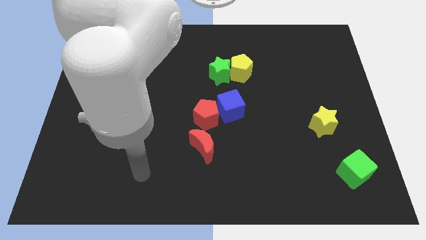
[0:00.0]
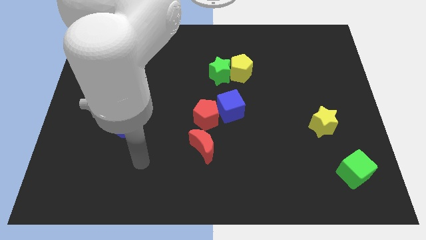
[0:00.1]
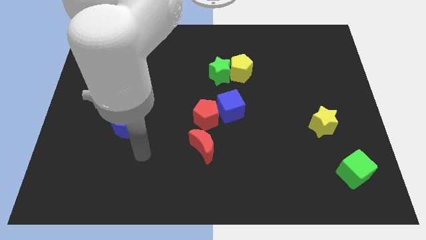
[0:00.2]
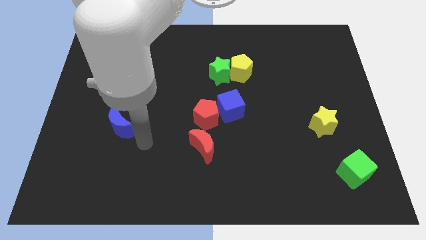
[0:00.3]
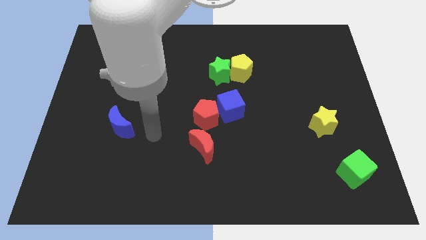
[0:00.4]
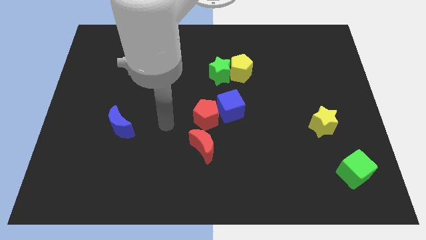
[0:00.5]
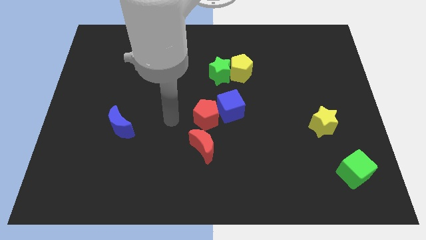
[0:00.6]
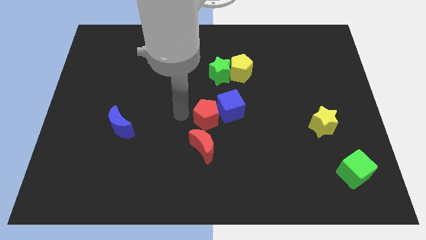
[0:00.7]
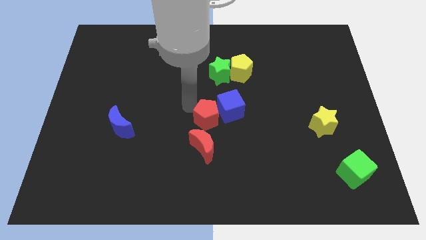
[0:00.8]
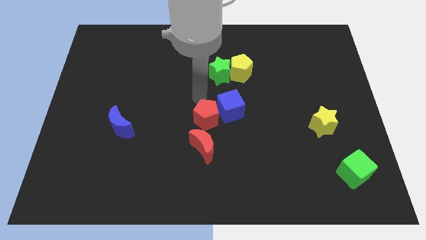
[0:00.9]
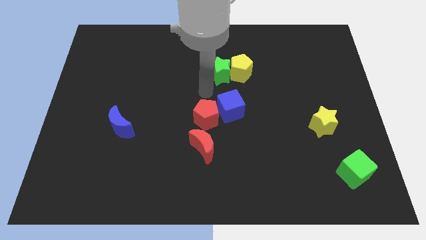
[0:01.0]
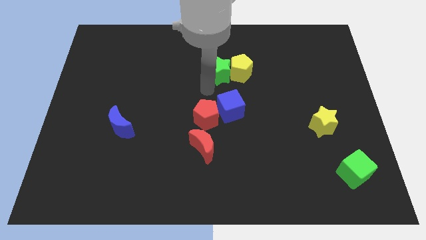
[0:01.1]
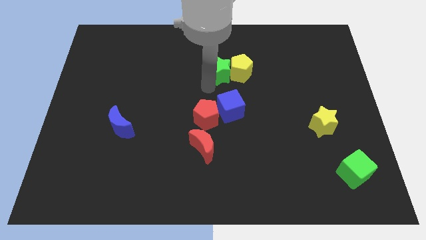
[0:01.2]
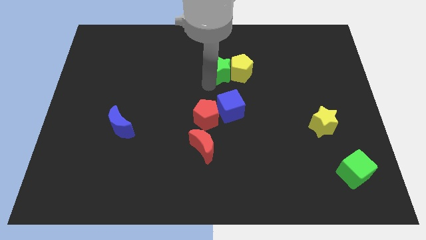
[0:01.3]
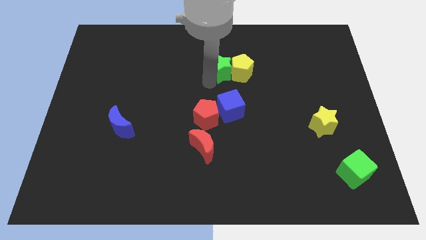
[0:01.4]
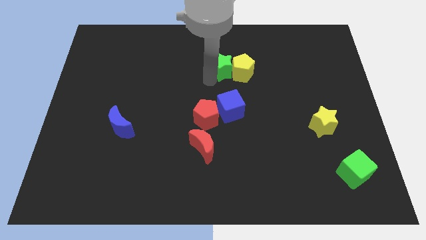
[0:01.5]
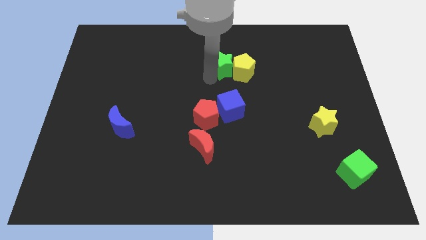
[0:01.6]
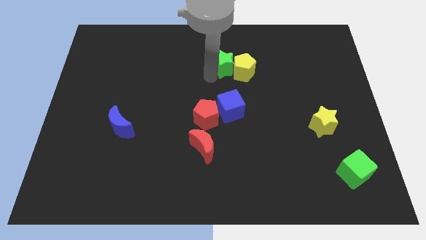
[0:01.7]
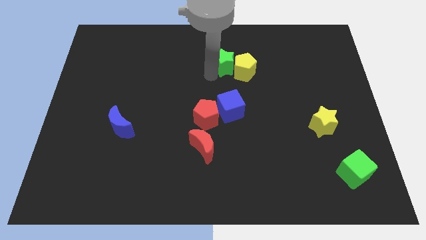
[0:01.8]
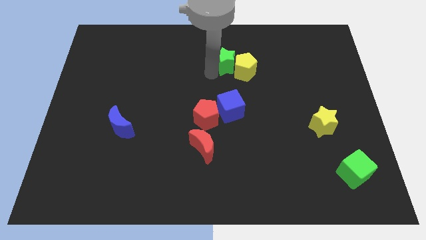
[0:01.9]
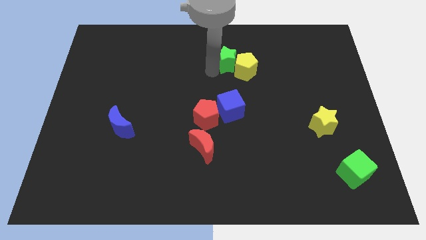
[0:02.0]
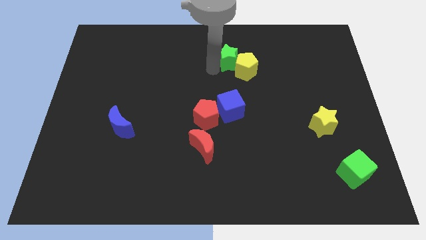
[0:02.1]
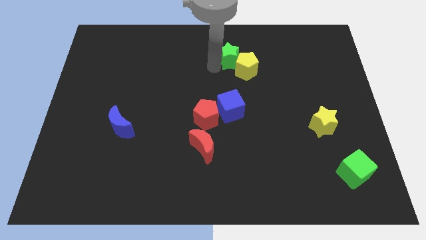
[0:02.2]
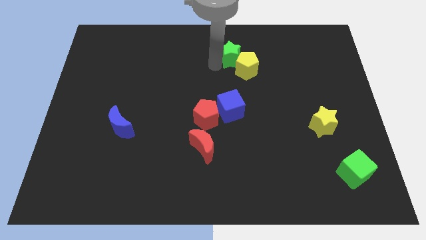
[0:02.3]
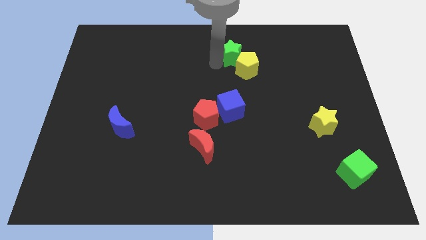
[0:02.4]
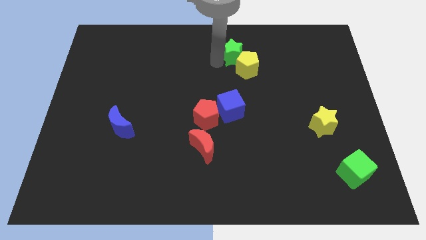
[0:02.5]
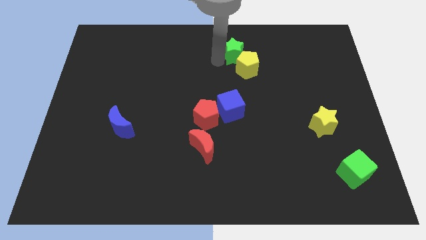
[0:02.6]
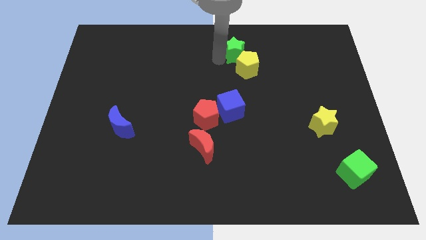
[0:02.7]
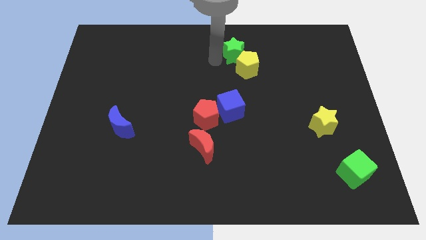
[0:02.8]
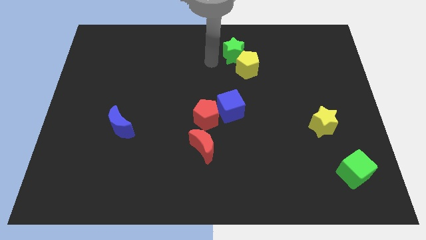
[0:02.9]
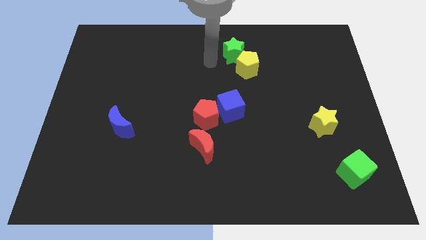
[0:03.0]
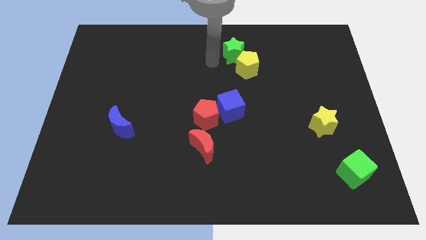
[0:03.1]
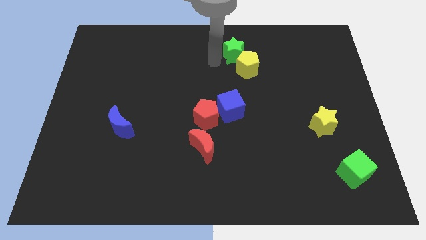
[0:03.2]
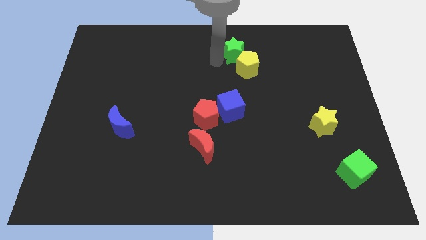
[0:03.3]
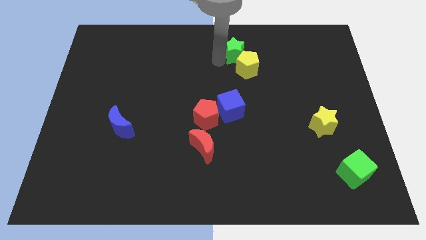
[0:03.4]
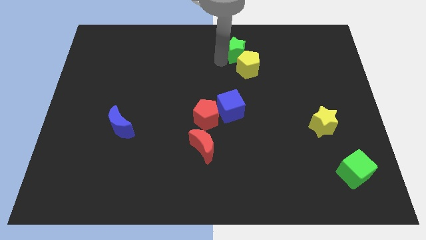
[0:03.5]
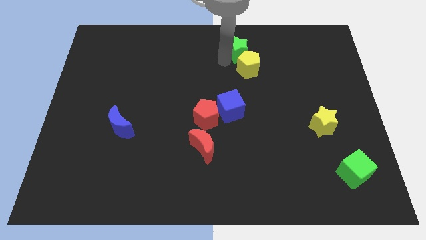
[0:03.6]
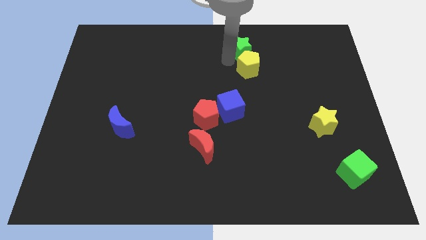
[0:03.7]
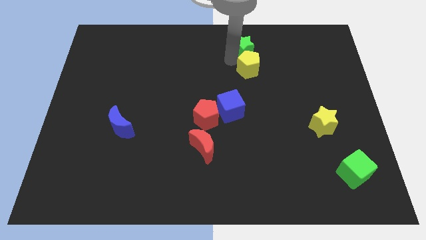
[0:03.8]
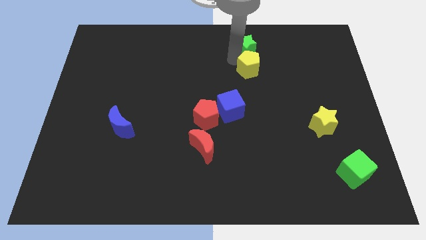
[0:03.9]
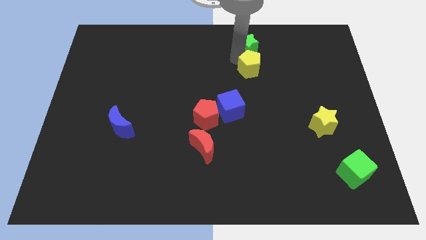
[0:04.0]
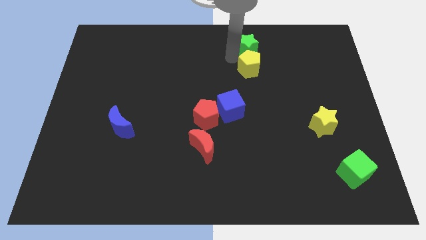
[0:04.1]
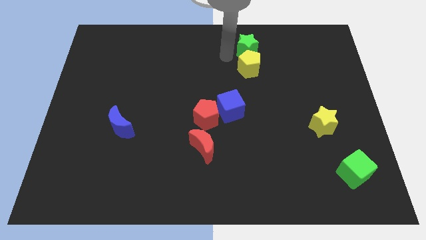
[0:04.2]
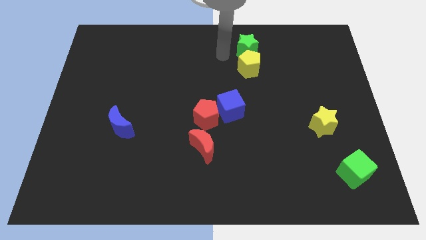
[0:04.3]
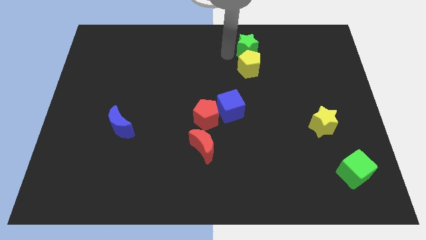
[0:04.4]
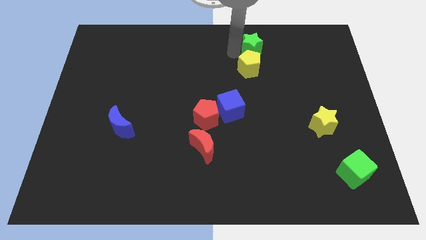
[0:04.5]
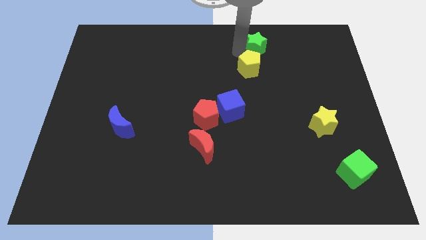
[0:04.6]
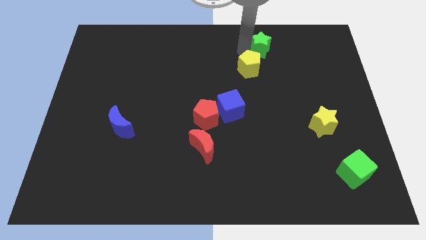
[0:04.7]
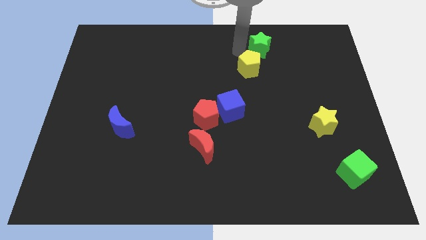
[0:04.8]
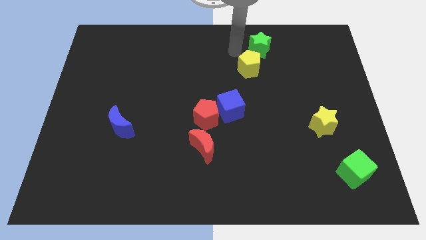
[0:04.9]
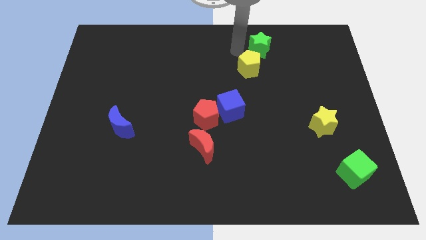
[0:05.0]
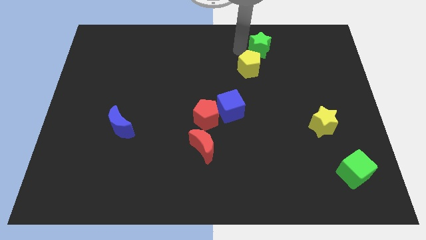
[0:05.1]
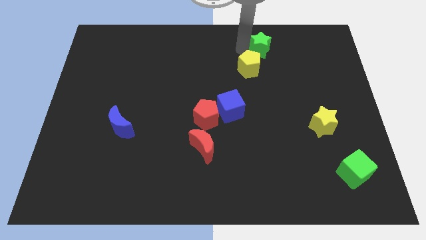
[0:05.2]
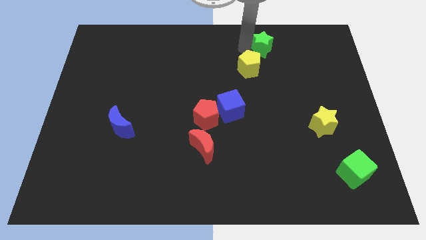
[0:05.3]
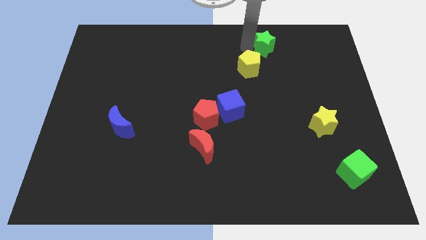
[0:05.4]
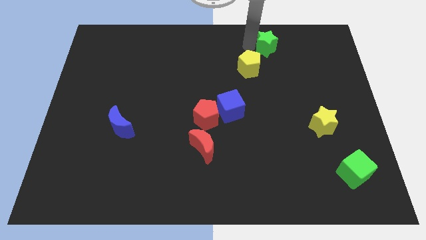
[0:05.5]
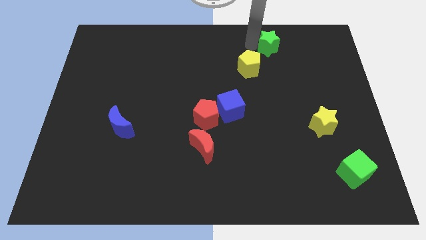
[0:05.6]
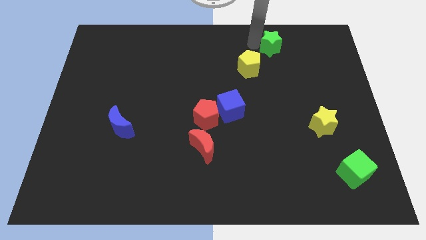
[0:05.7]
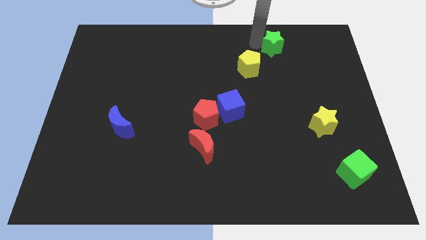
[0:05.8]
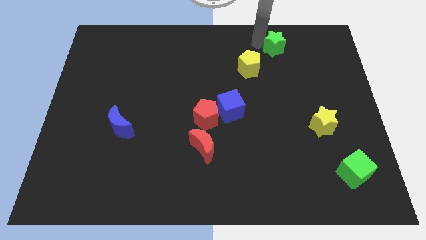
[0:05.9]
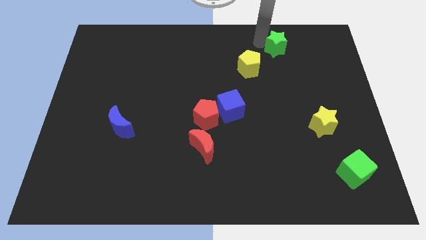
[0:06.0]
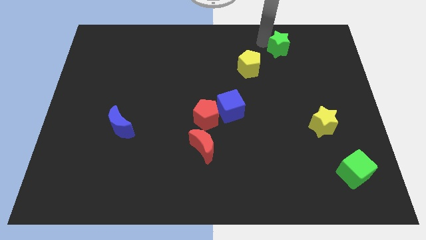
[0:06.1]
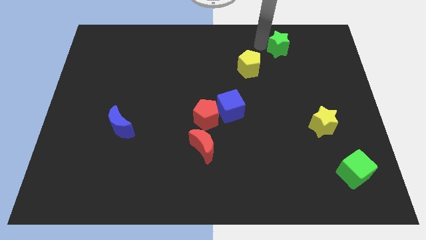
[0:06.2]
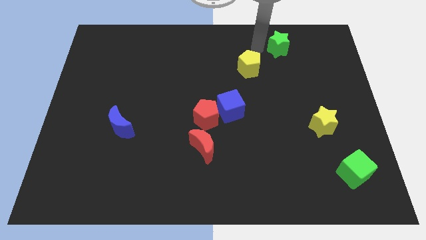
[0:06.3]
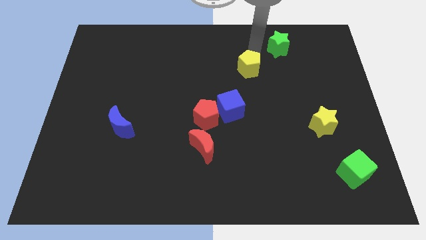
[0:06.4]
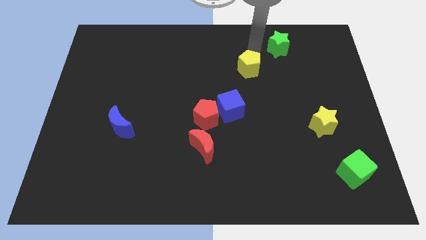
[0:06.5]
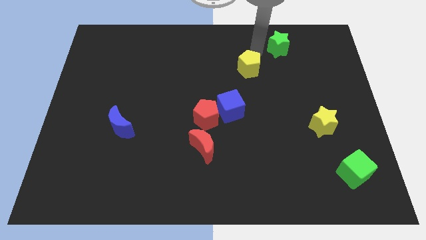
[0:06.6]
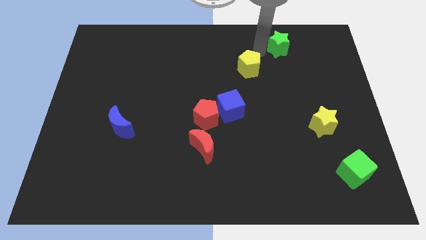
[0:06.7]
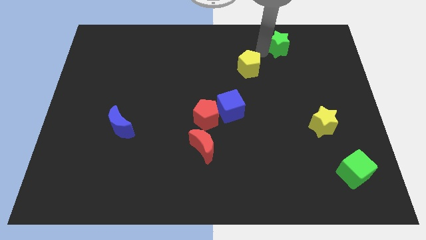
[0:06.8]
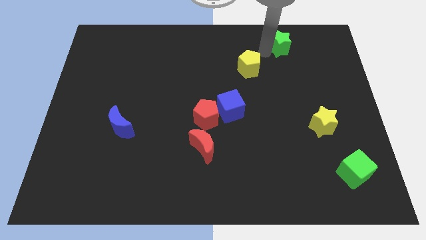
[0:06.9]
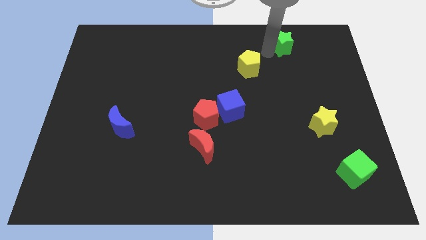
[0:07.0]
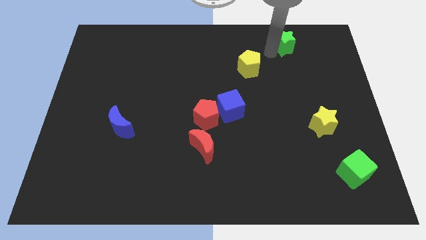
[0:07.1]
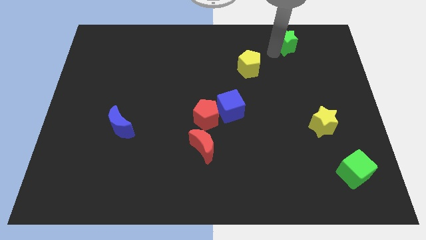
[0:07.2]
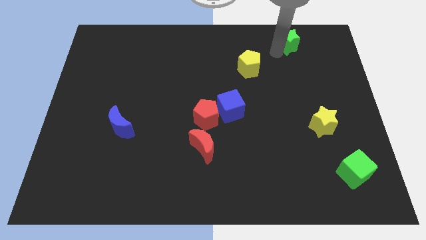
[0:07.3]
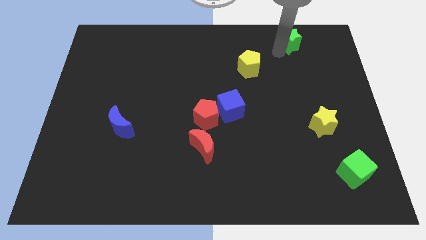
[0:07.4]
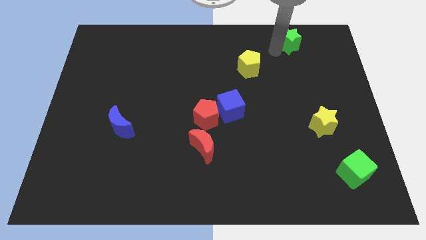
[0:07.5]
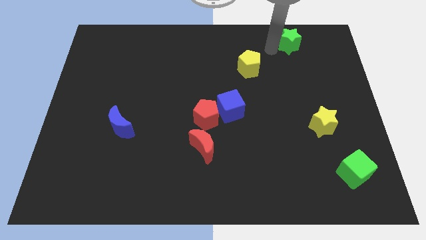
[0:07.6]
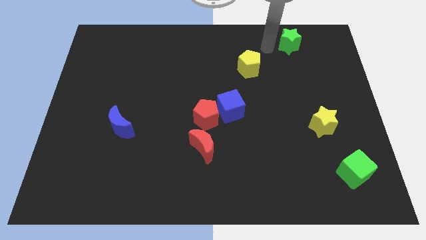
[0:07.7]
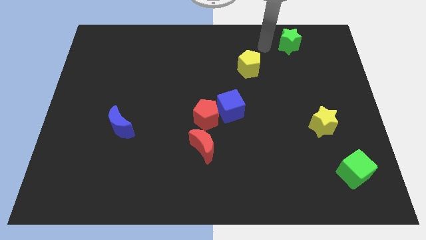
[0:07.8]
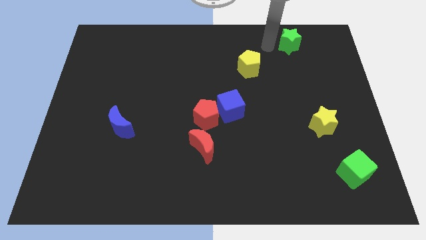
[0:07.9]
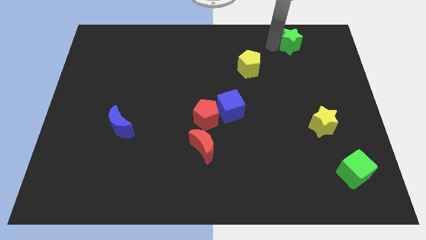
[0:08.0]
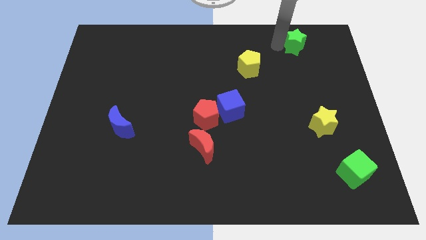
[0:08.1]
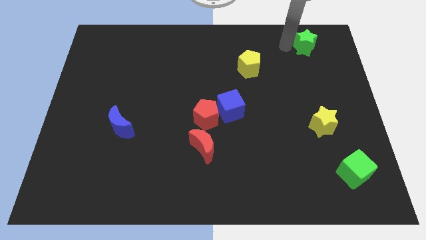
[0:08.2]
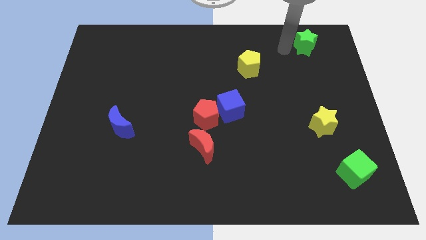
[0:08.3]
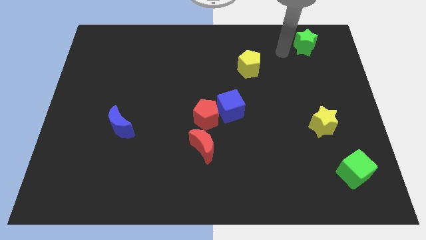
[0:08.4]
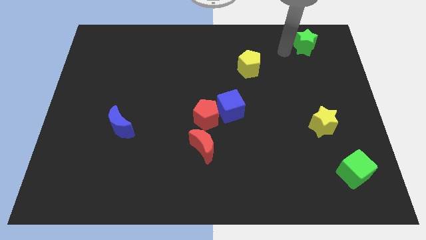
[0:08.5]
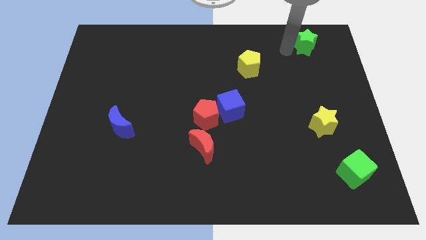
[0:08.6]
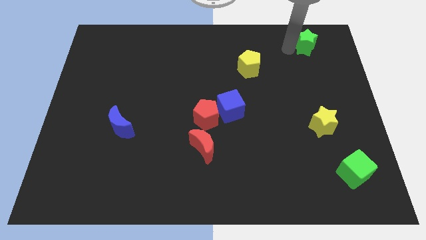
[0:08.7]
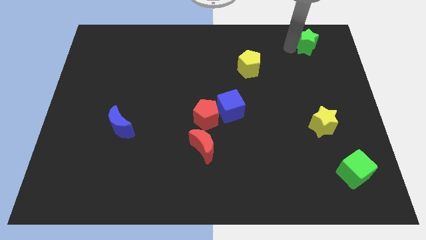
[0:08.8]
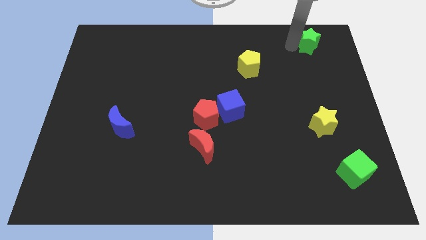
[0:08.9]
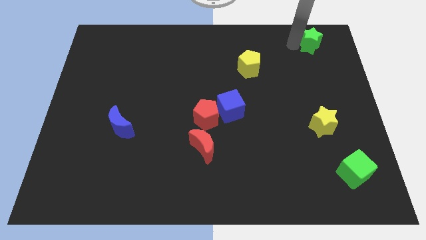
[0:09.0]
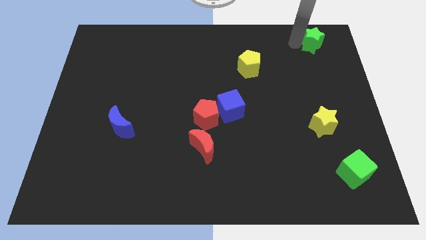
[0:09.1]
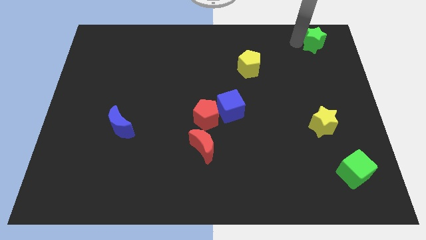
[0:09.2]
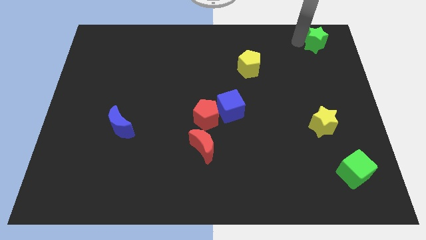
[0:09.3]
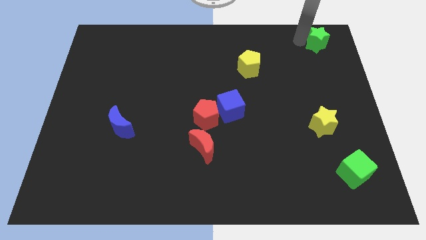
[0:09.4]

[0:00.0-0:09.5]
put the green star to the top right corner
